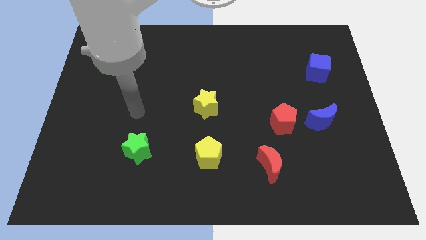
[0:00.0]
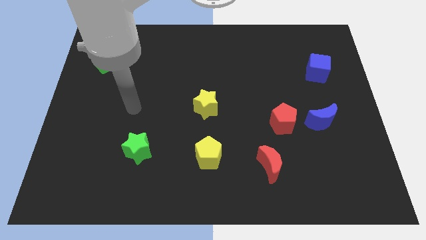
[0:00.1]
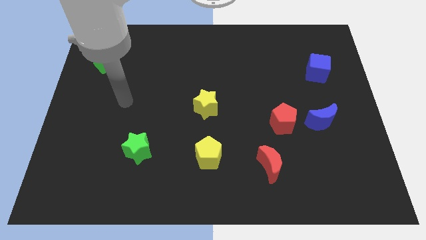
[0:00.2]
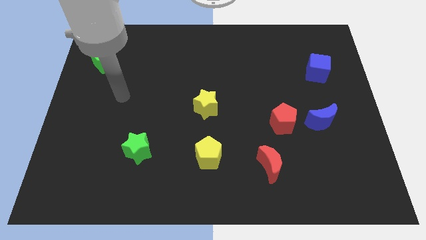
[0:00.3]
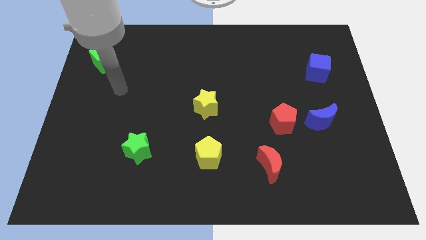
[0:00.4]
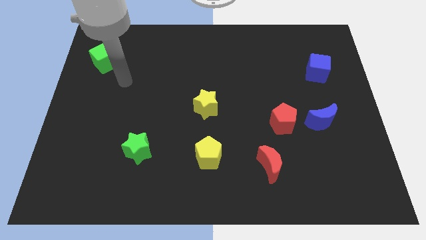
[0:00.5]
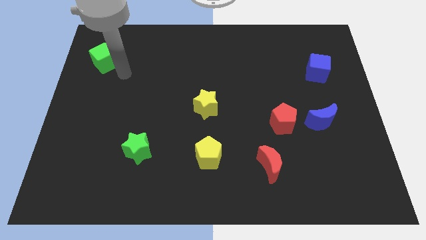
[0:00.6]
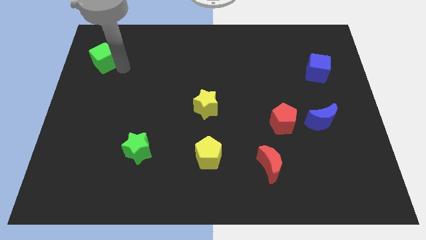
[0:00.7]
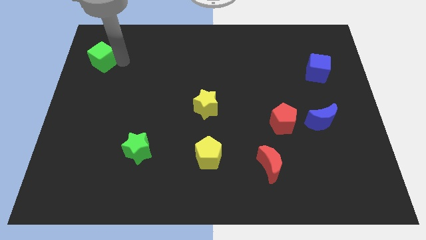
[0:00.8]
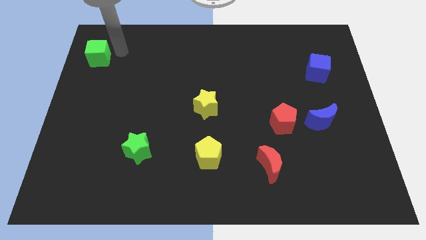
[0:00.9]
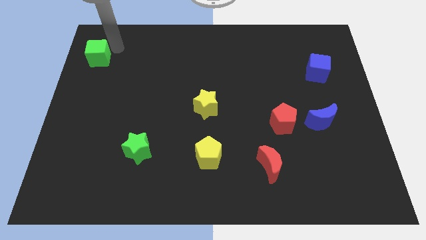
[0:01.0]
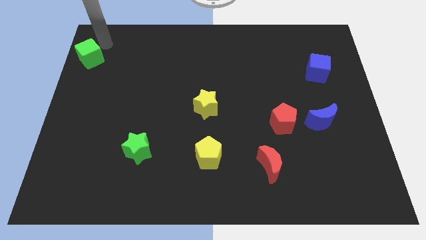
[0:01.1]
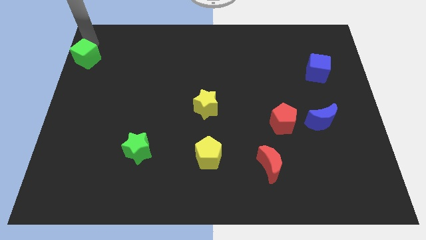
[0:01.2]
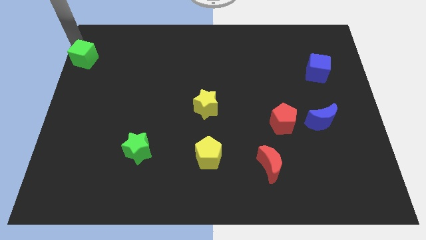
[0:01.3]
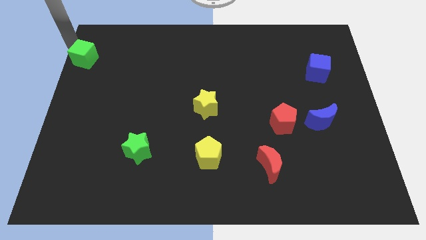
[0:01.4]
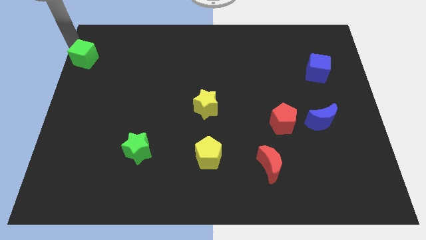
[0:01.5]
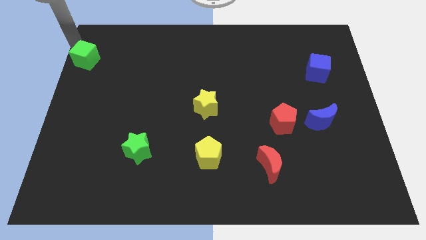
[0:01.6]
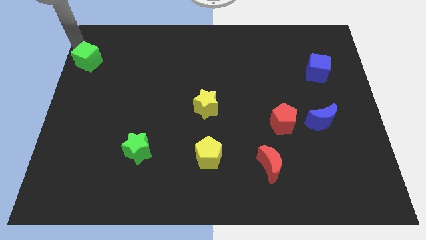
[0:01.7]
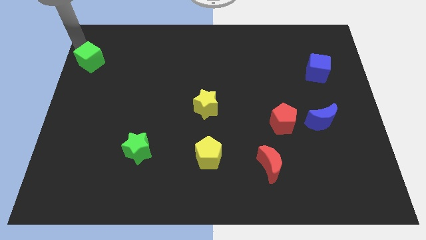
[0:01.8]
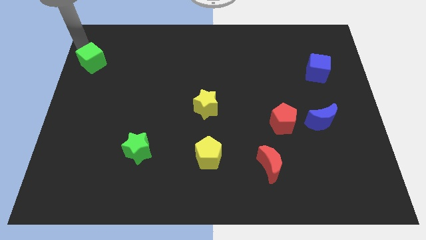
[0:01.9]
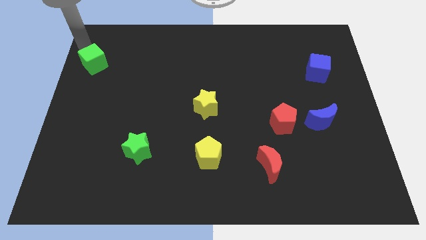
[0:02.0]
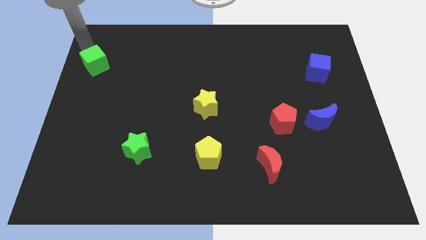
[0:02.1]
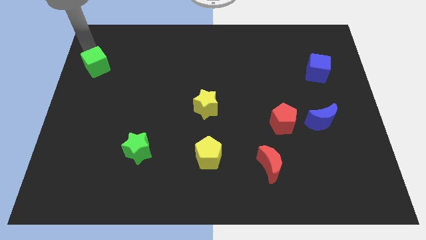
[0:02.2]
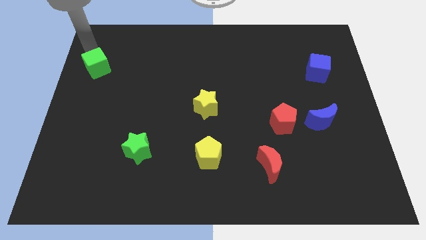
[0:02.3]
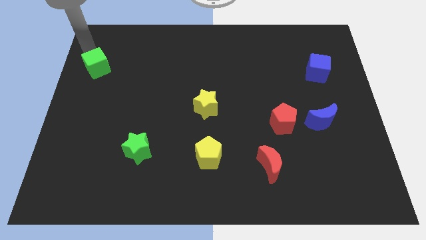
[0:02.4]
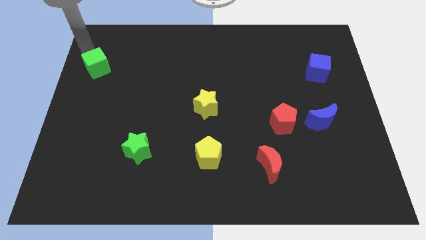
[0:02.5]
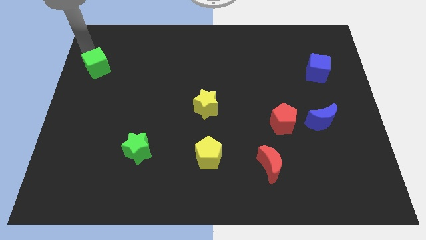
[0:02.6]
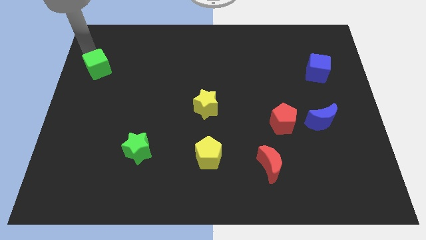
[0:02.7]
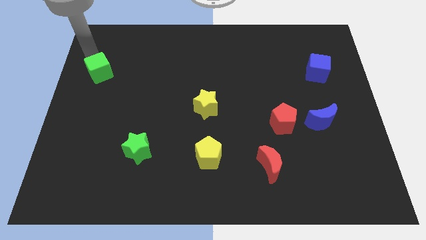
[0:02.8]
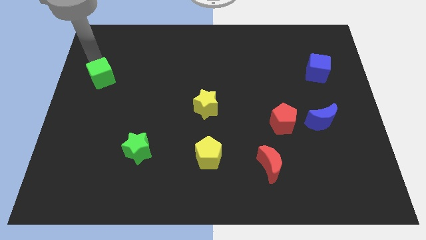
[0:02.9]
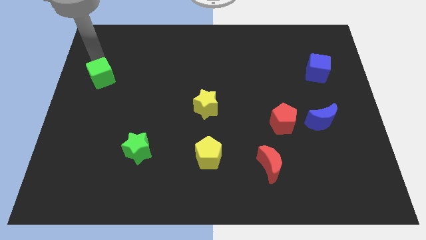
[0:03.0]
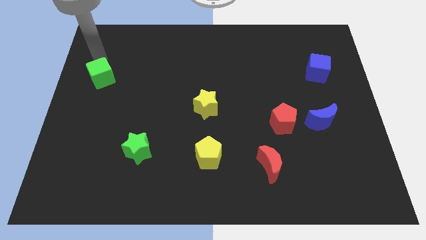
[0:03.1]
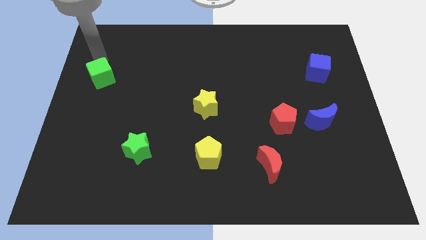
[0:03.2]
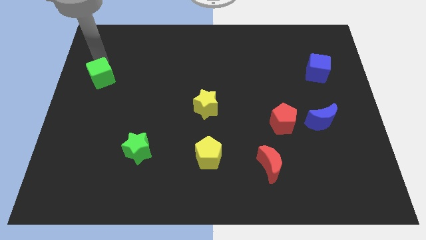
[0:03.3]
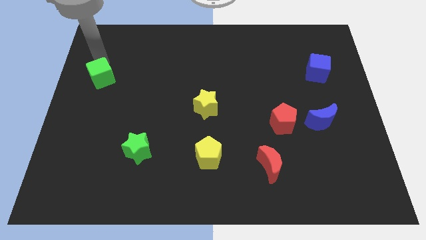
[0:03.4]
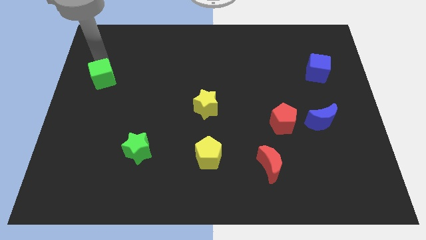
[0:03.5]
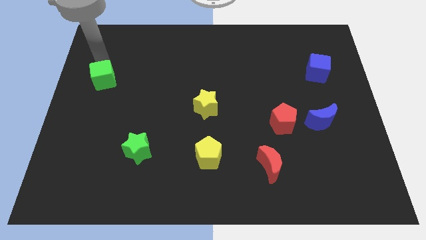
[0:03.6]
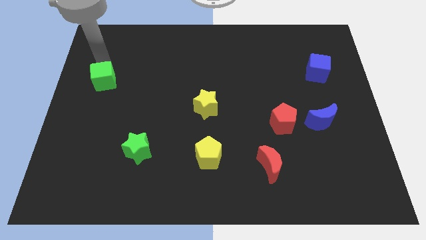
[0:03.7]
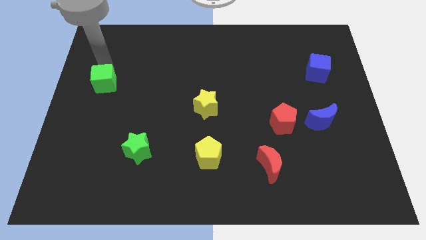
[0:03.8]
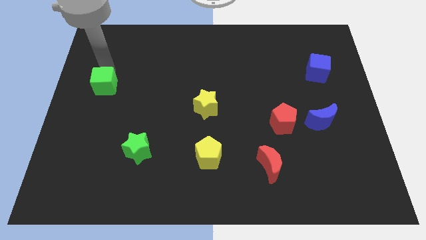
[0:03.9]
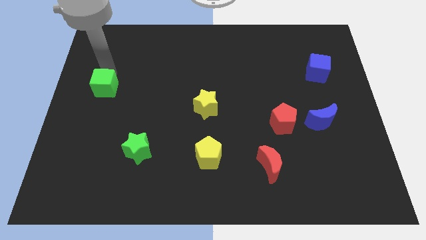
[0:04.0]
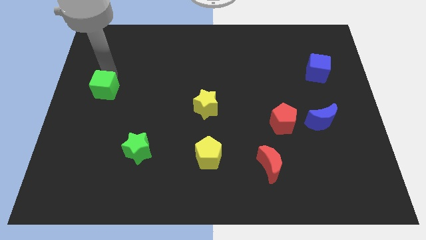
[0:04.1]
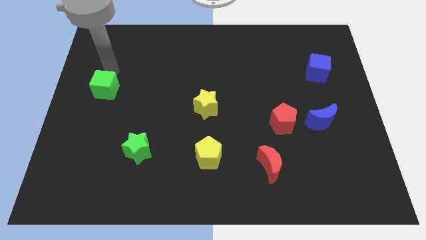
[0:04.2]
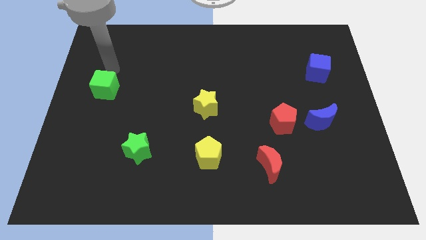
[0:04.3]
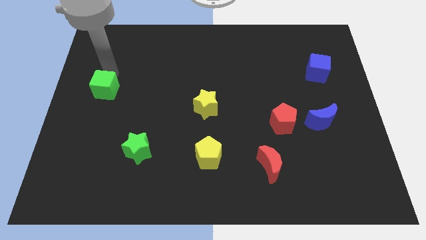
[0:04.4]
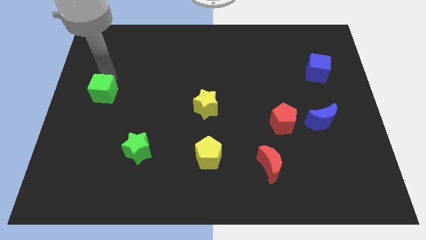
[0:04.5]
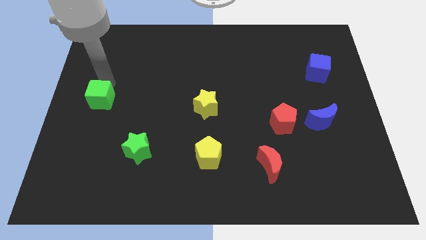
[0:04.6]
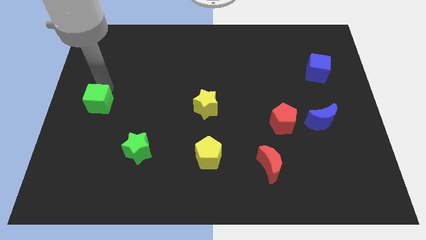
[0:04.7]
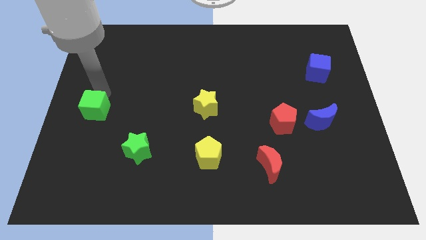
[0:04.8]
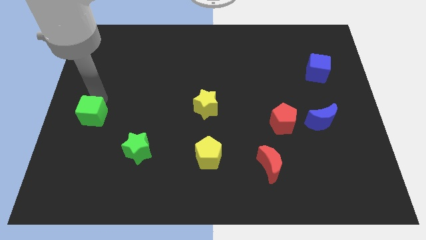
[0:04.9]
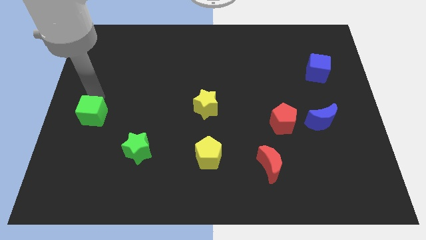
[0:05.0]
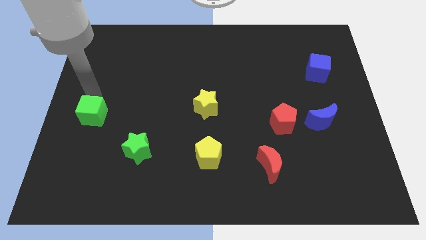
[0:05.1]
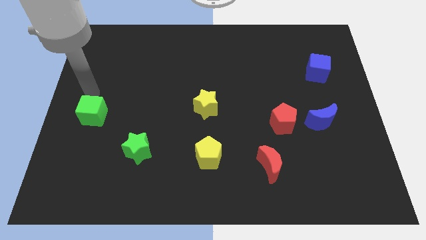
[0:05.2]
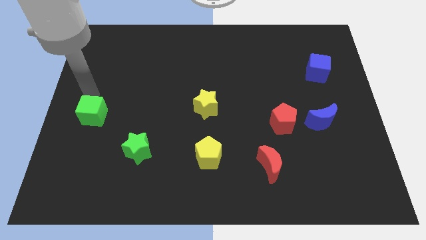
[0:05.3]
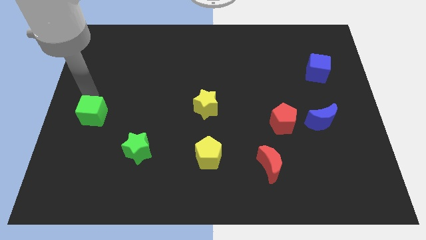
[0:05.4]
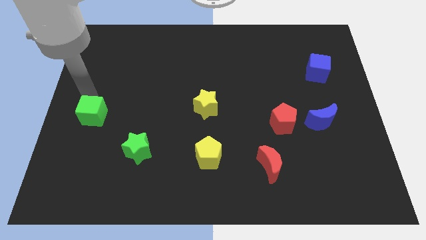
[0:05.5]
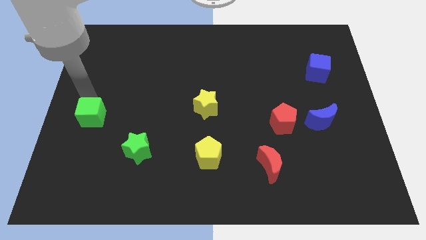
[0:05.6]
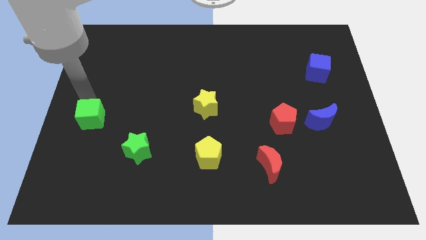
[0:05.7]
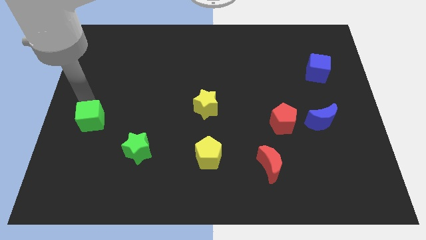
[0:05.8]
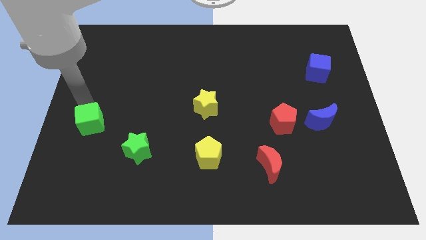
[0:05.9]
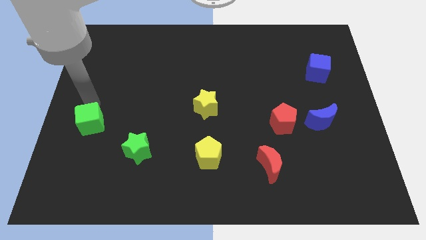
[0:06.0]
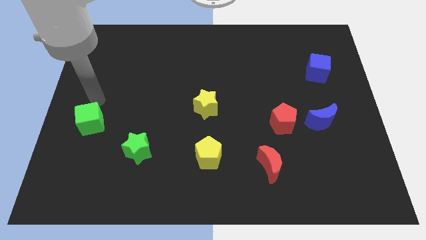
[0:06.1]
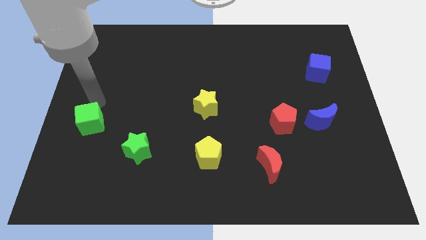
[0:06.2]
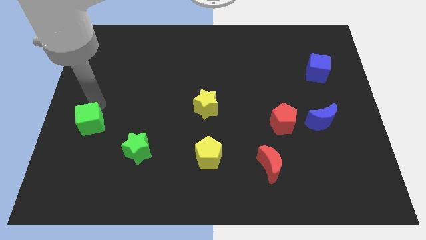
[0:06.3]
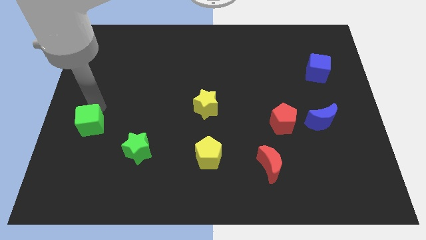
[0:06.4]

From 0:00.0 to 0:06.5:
slide the green cube down

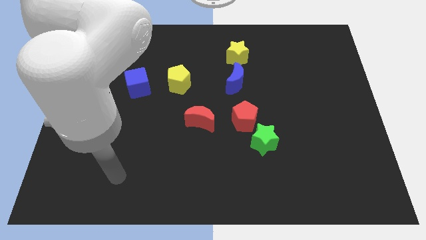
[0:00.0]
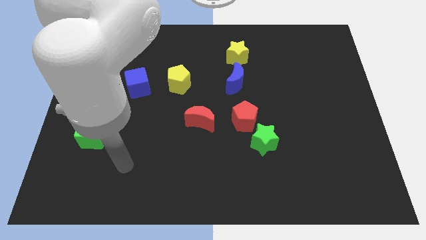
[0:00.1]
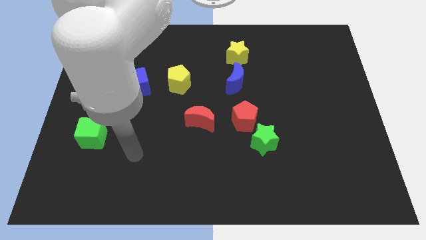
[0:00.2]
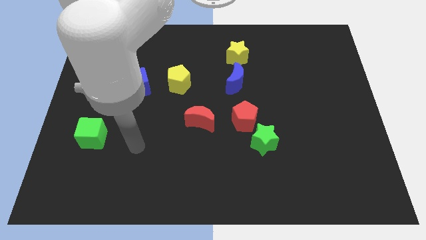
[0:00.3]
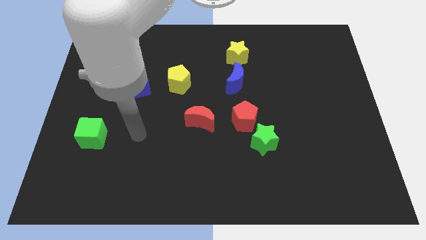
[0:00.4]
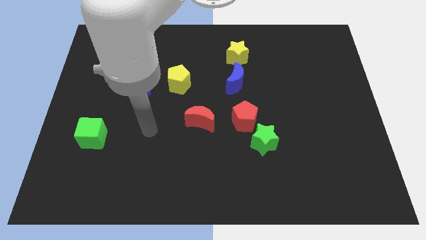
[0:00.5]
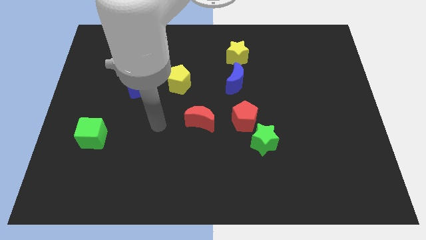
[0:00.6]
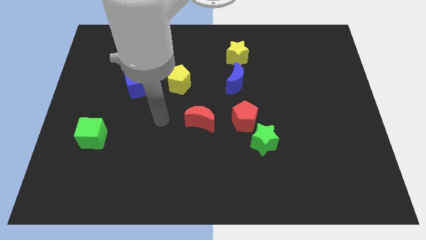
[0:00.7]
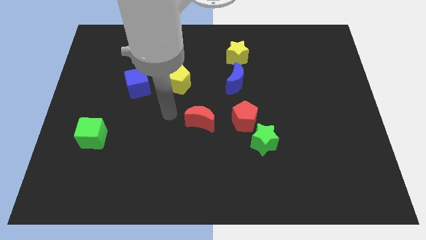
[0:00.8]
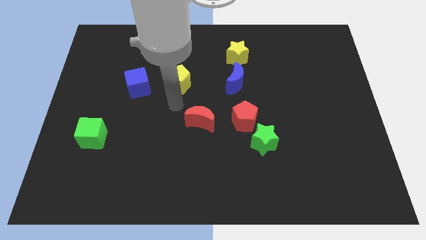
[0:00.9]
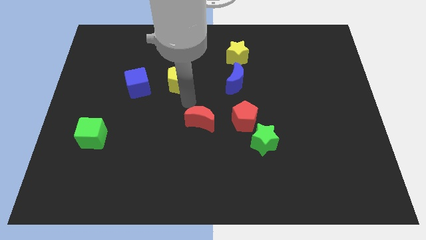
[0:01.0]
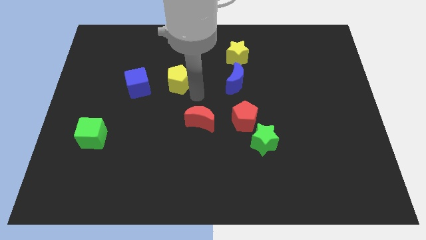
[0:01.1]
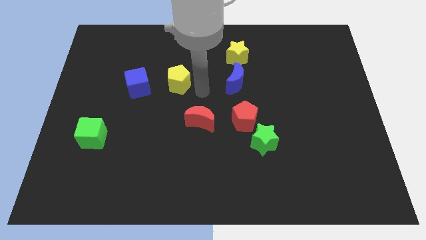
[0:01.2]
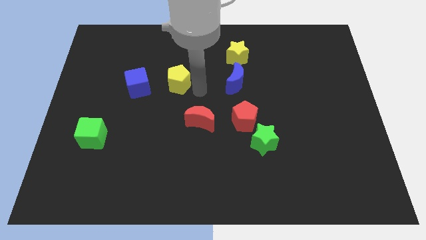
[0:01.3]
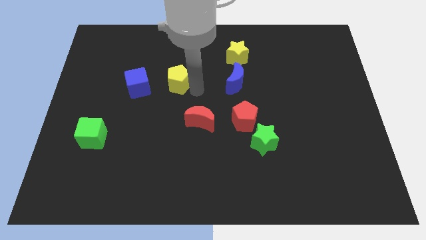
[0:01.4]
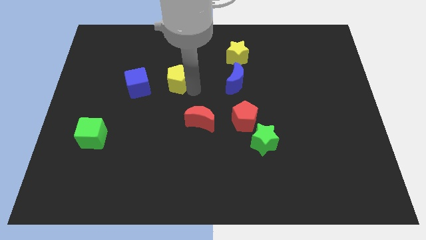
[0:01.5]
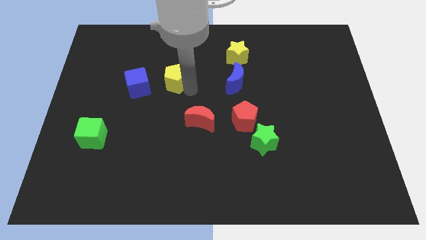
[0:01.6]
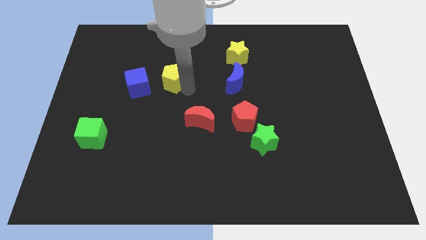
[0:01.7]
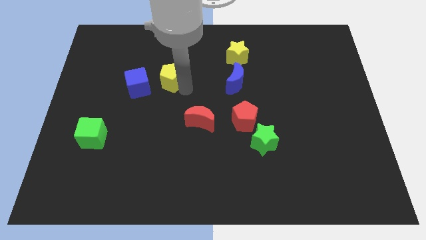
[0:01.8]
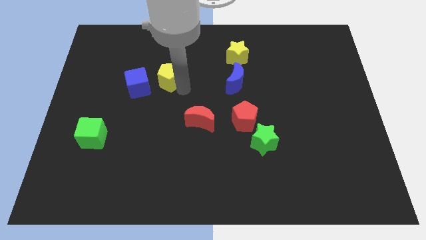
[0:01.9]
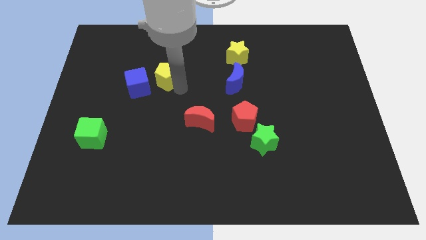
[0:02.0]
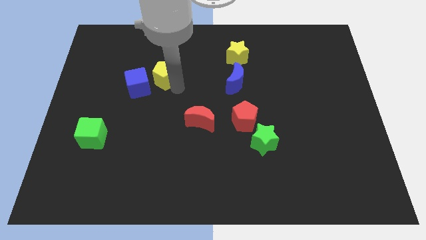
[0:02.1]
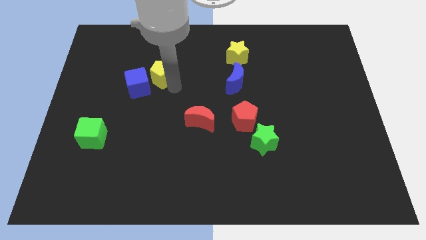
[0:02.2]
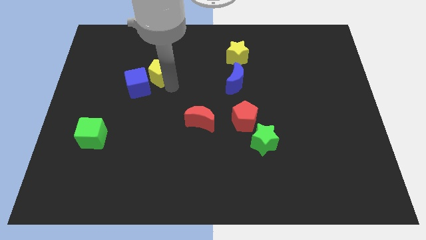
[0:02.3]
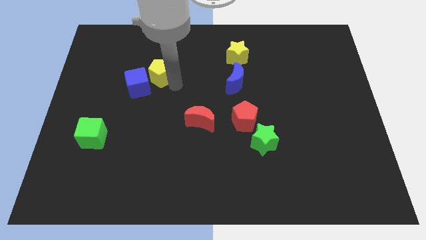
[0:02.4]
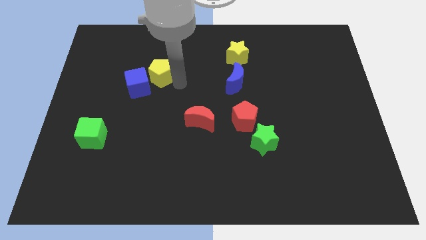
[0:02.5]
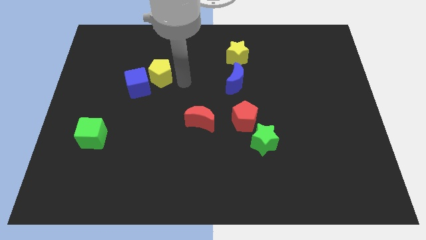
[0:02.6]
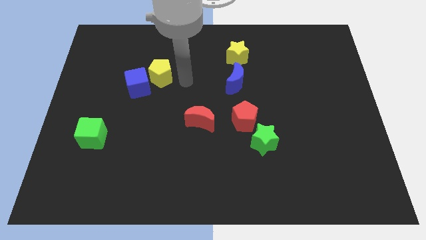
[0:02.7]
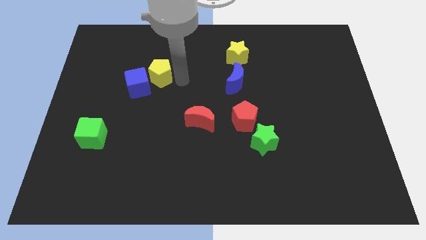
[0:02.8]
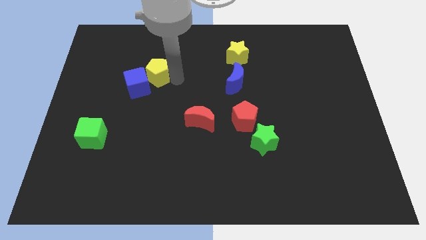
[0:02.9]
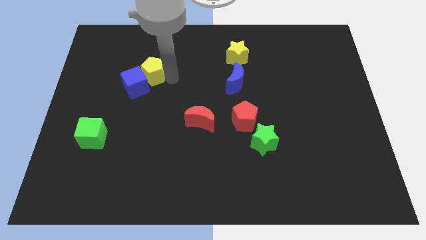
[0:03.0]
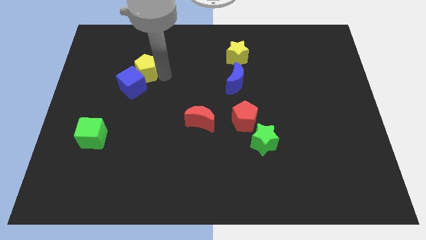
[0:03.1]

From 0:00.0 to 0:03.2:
move the yellow pentagon left a little bit
